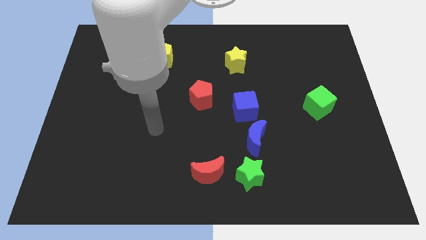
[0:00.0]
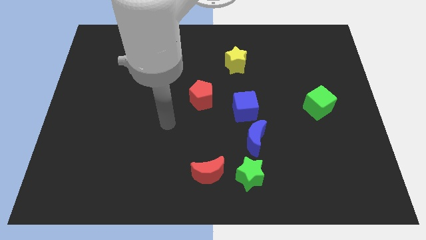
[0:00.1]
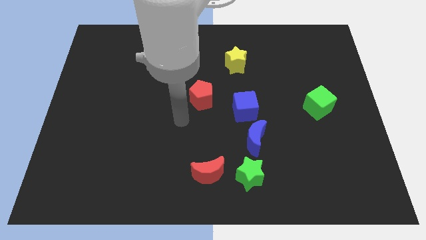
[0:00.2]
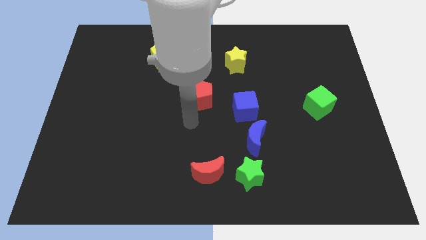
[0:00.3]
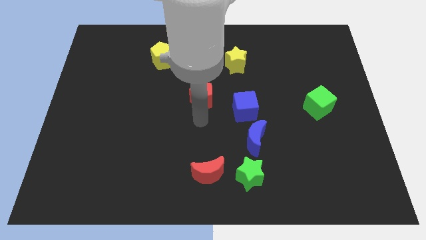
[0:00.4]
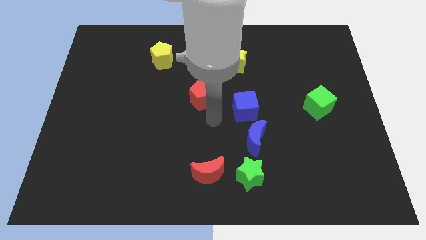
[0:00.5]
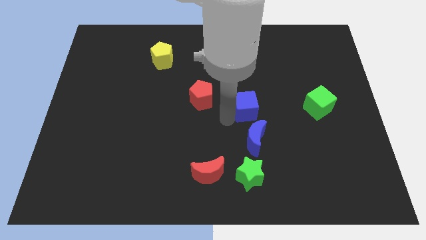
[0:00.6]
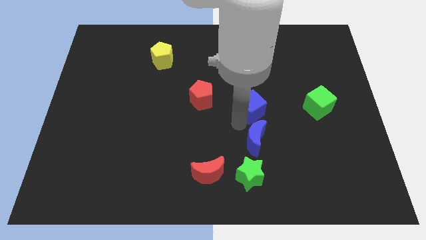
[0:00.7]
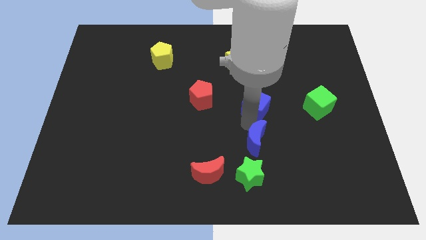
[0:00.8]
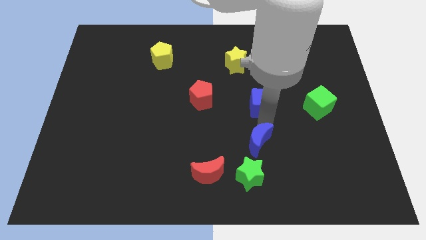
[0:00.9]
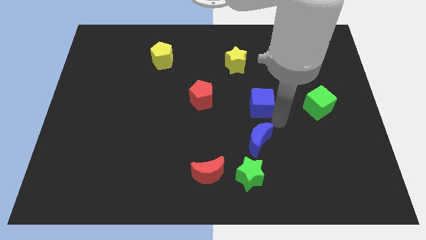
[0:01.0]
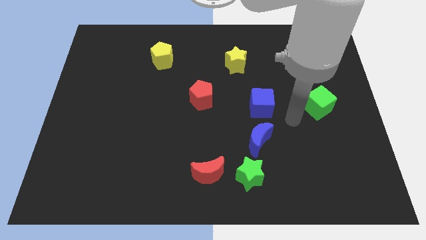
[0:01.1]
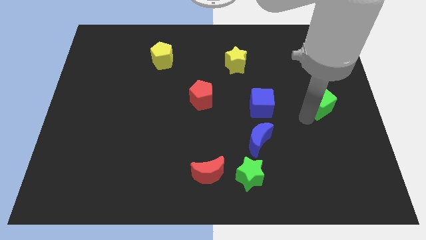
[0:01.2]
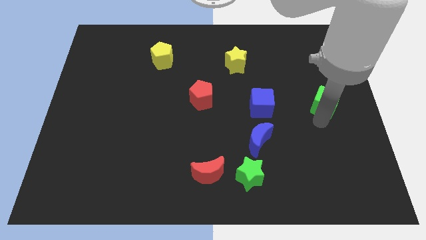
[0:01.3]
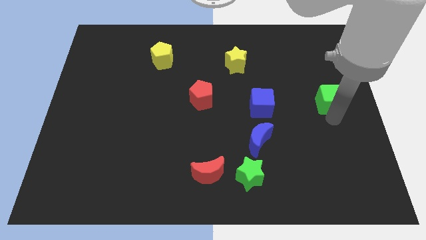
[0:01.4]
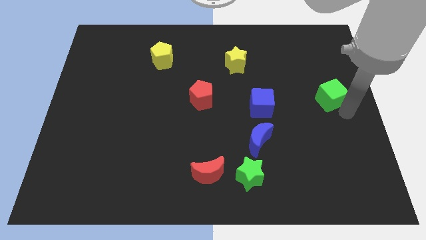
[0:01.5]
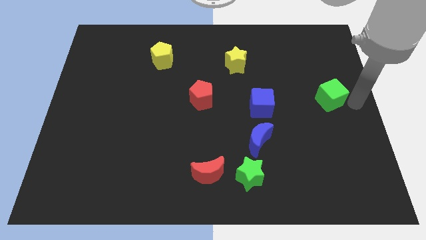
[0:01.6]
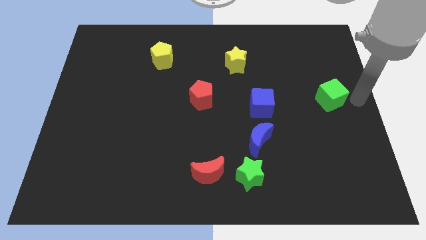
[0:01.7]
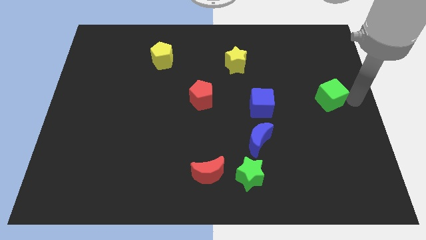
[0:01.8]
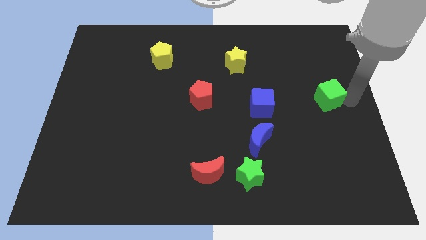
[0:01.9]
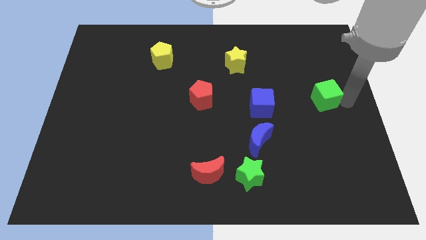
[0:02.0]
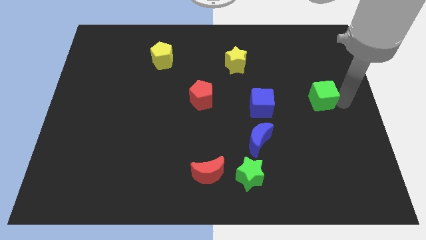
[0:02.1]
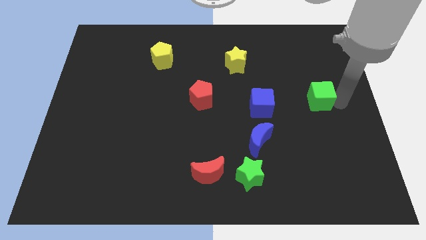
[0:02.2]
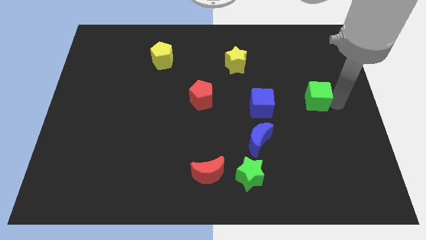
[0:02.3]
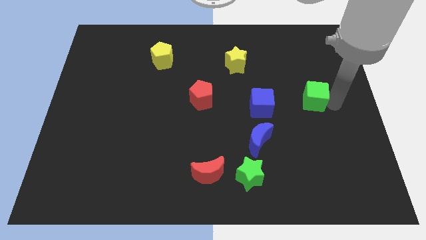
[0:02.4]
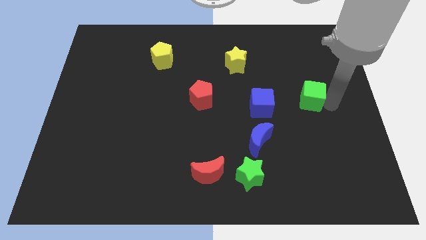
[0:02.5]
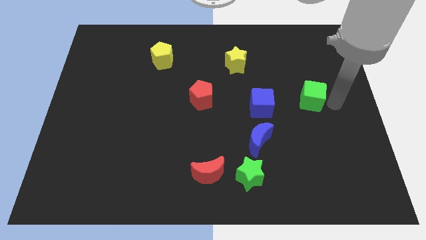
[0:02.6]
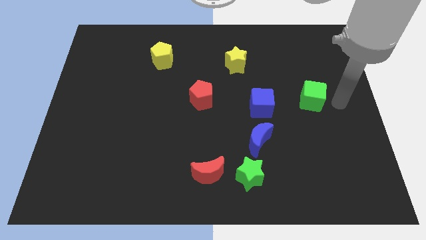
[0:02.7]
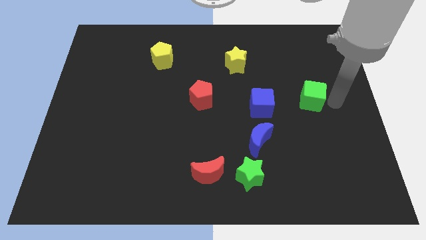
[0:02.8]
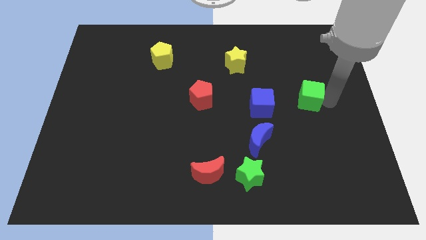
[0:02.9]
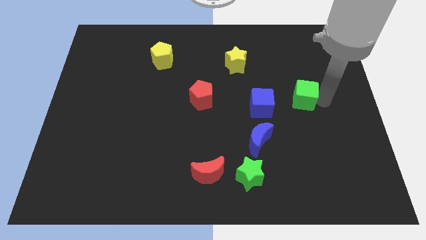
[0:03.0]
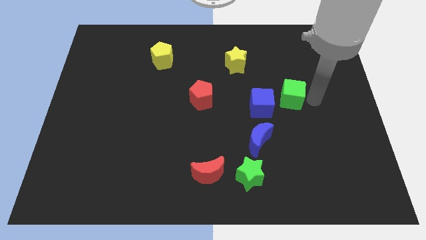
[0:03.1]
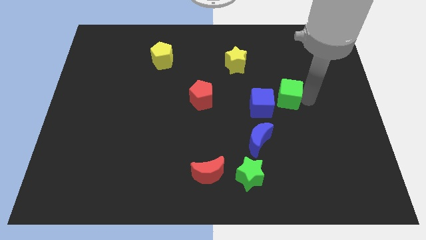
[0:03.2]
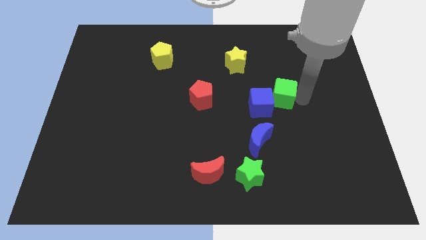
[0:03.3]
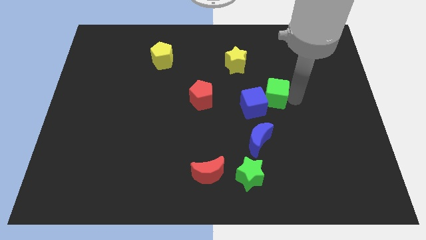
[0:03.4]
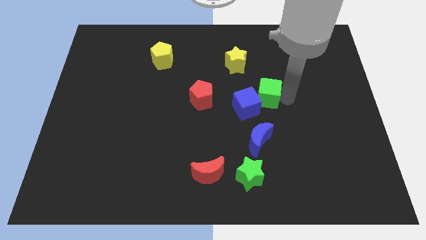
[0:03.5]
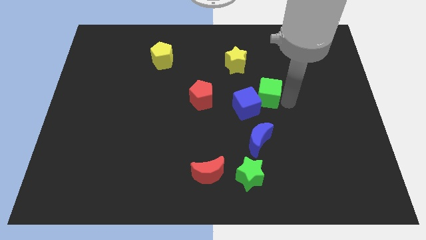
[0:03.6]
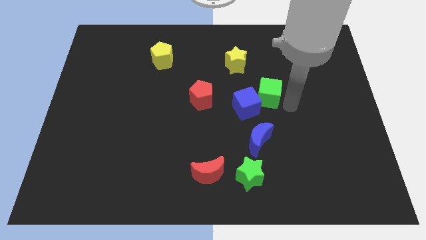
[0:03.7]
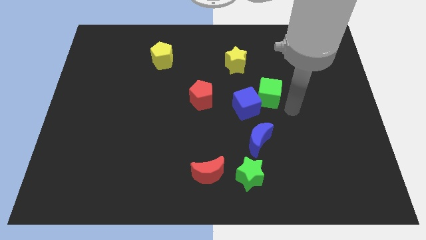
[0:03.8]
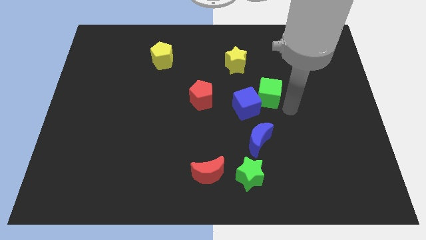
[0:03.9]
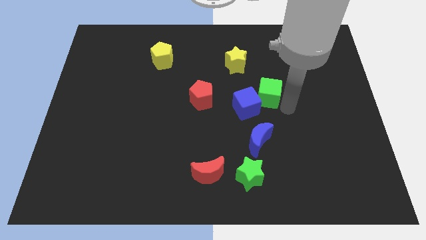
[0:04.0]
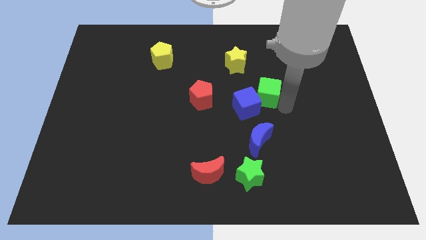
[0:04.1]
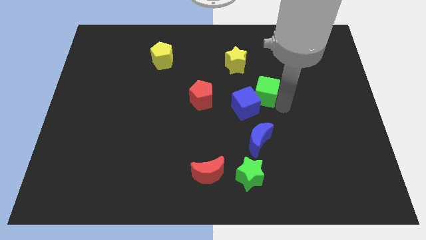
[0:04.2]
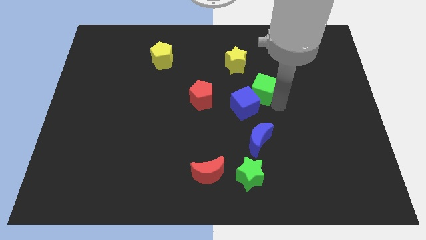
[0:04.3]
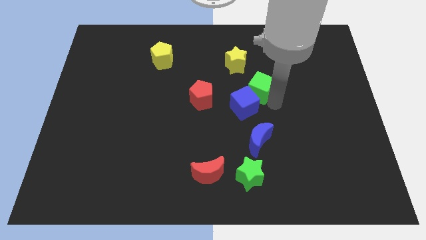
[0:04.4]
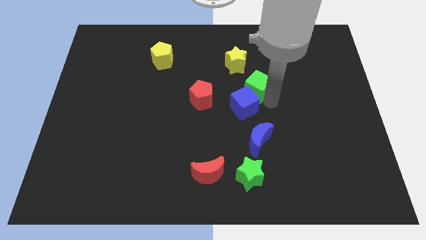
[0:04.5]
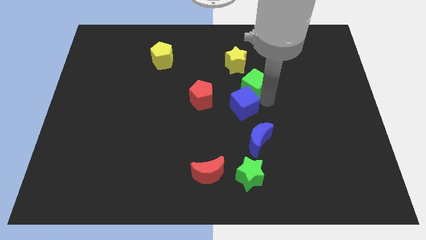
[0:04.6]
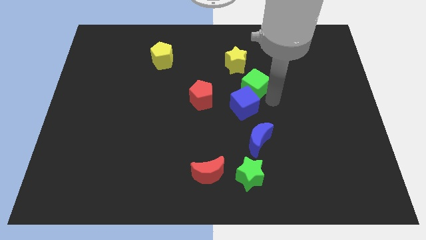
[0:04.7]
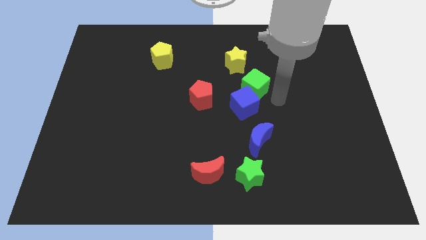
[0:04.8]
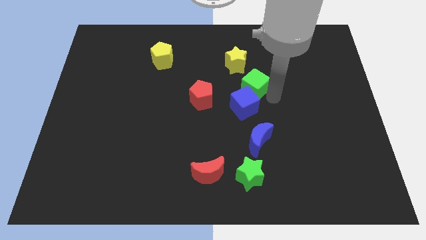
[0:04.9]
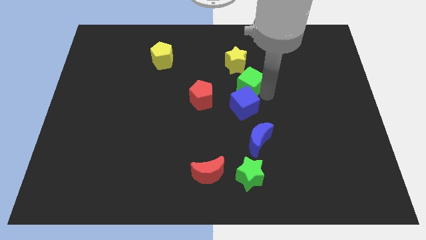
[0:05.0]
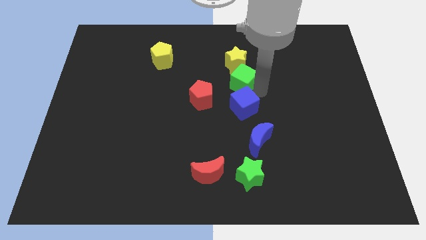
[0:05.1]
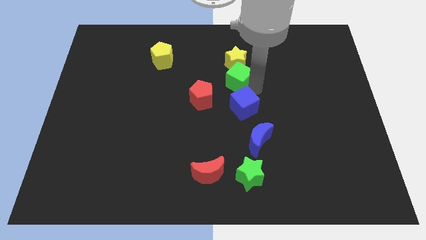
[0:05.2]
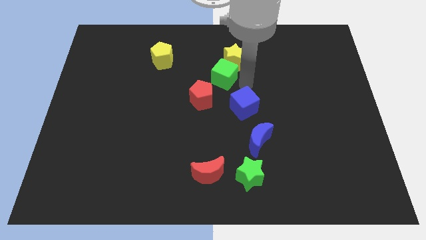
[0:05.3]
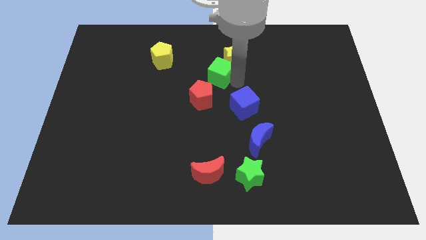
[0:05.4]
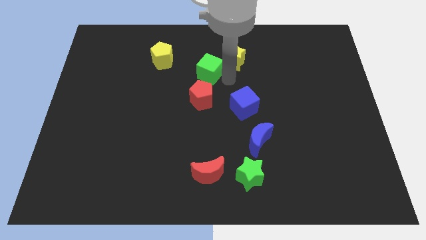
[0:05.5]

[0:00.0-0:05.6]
push the green cube just left of the yellow star

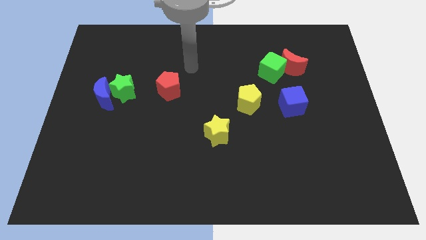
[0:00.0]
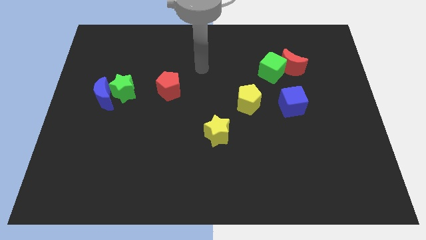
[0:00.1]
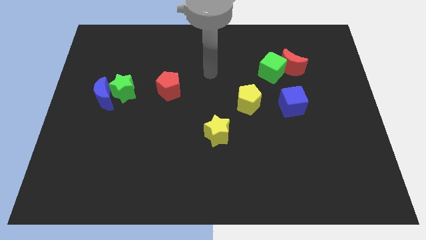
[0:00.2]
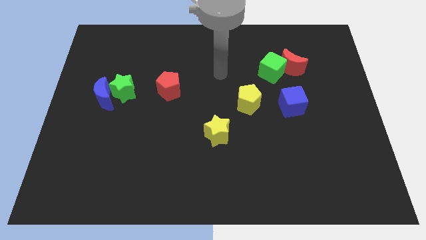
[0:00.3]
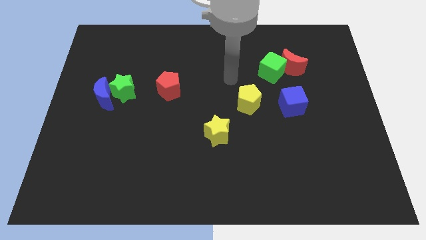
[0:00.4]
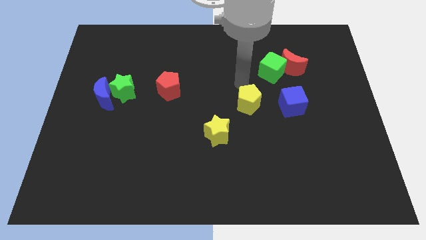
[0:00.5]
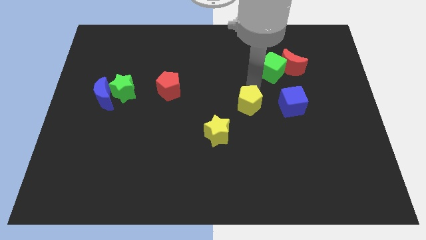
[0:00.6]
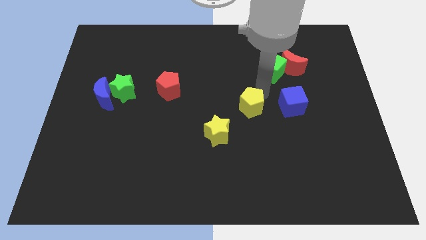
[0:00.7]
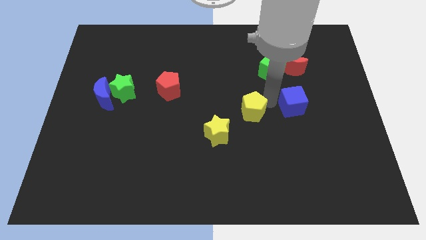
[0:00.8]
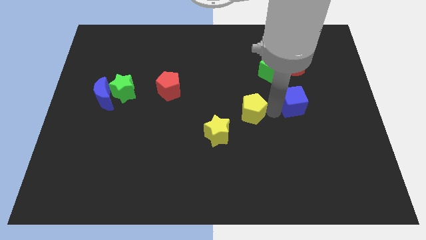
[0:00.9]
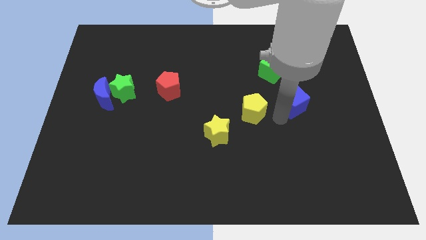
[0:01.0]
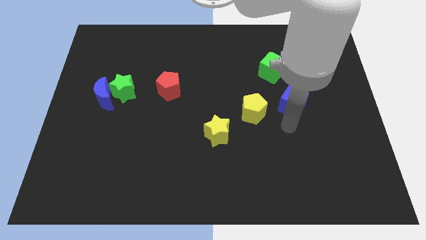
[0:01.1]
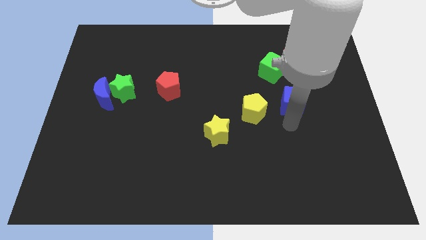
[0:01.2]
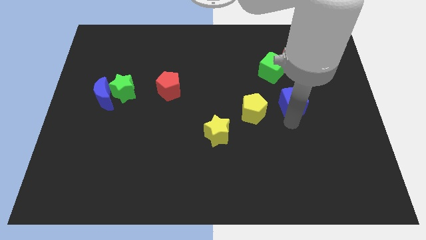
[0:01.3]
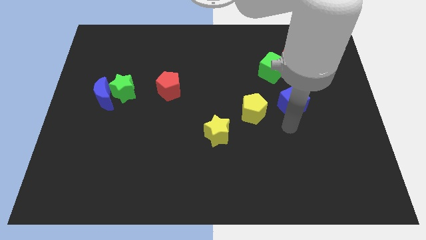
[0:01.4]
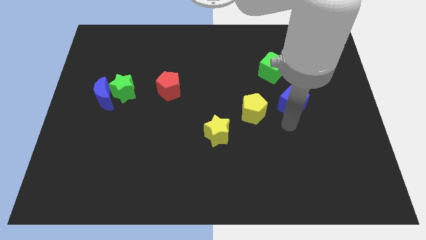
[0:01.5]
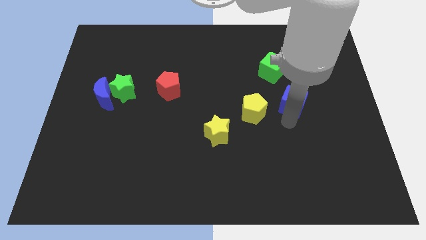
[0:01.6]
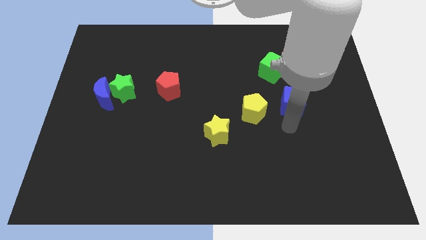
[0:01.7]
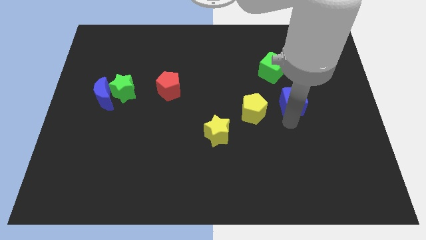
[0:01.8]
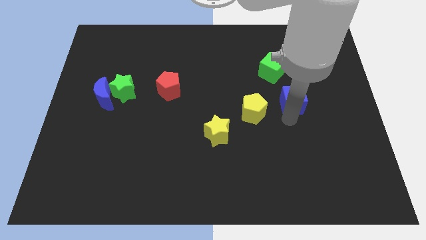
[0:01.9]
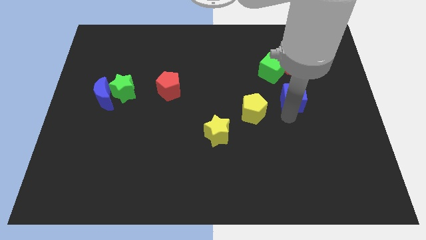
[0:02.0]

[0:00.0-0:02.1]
slide the blue cube to the bottom right side of the green cube
